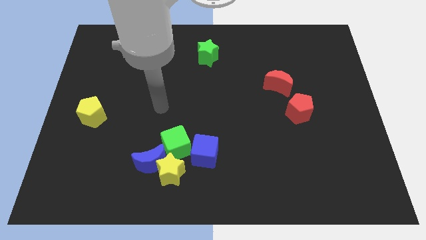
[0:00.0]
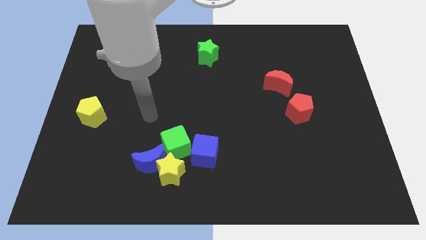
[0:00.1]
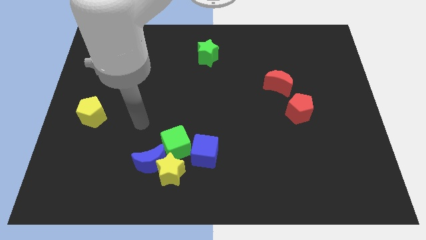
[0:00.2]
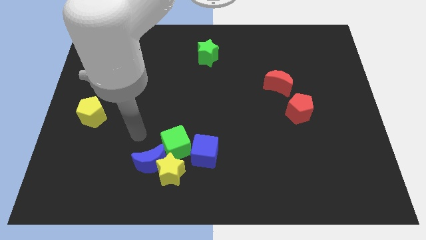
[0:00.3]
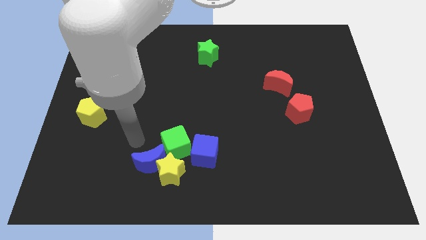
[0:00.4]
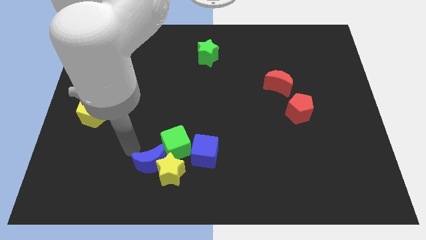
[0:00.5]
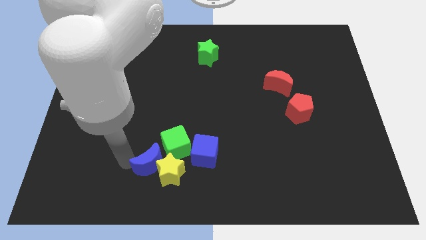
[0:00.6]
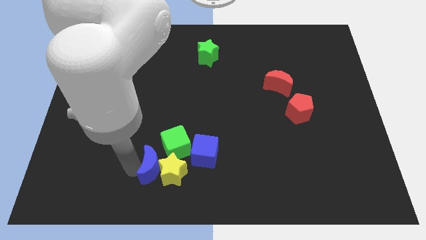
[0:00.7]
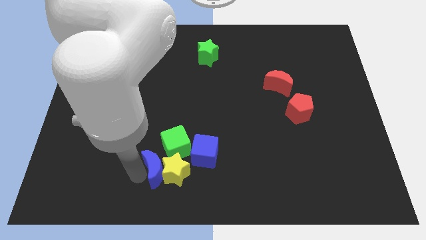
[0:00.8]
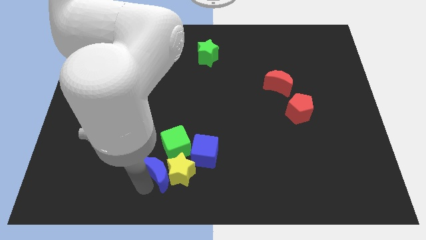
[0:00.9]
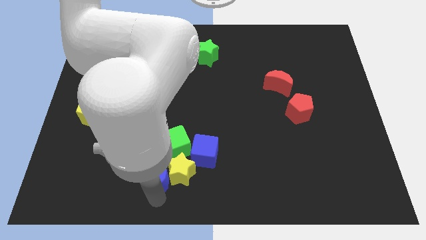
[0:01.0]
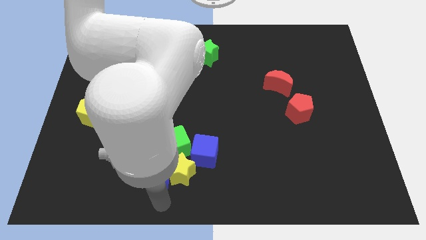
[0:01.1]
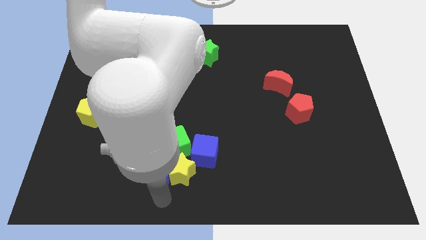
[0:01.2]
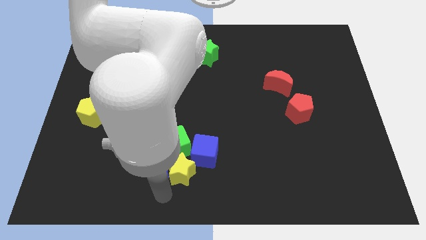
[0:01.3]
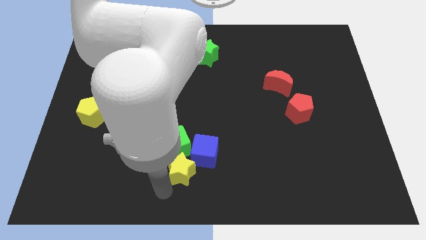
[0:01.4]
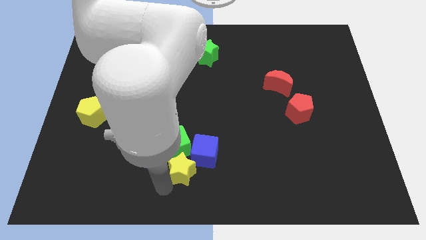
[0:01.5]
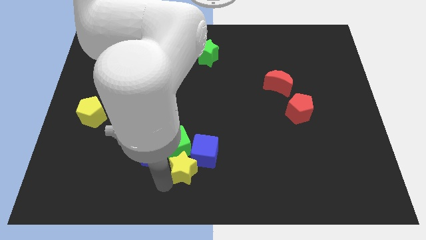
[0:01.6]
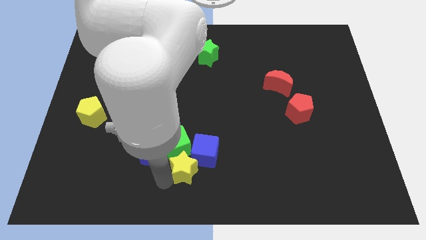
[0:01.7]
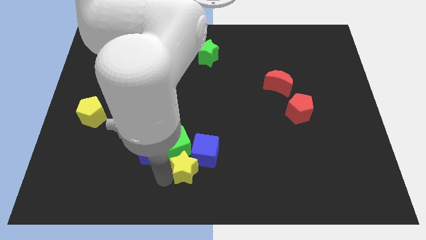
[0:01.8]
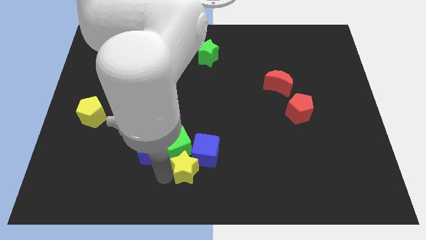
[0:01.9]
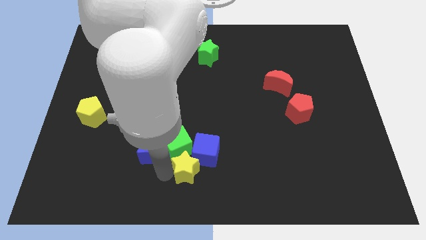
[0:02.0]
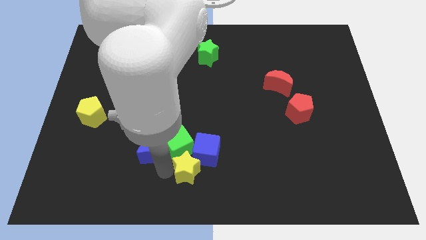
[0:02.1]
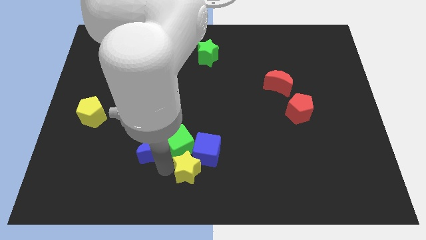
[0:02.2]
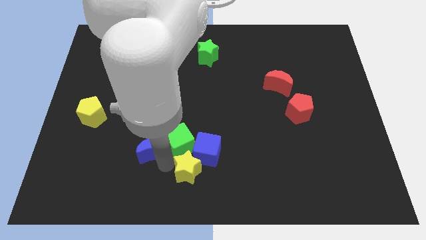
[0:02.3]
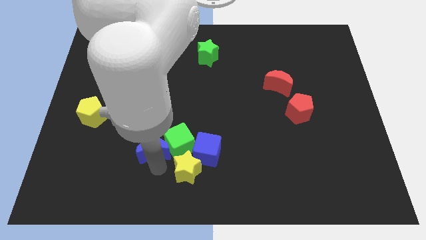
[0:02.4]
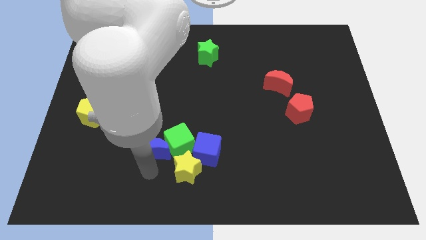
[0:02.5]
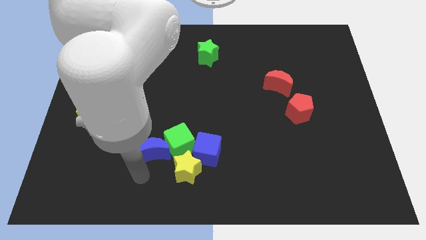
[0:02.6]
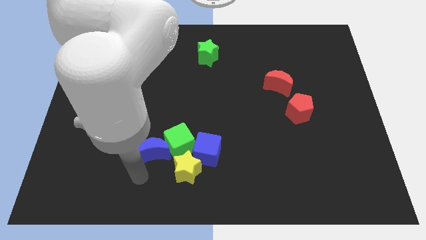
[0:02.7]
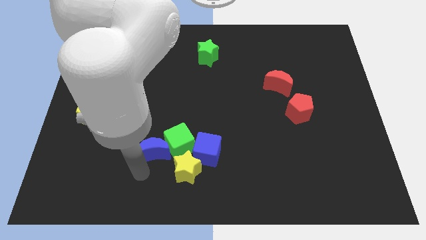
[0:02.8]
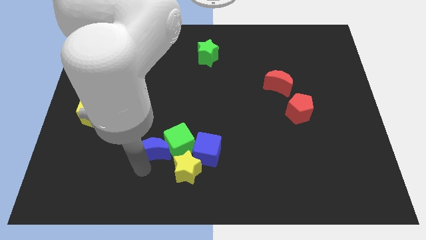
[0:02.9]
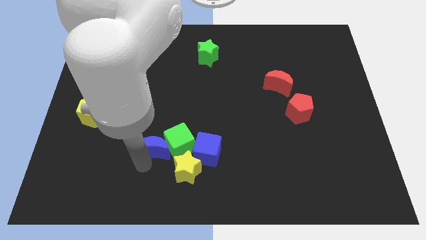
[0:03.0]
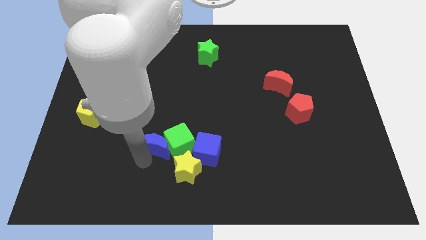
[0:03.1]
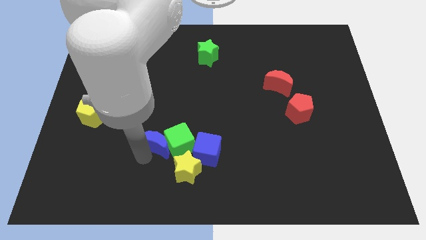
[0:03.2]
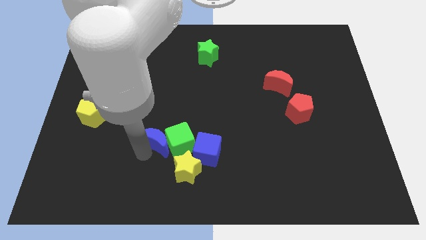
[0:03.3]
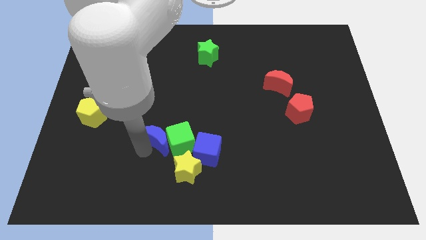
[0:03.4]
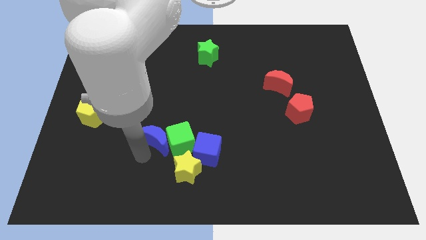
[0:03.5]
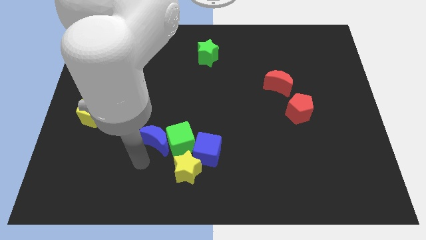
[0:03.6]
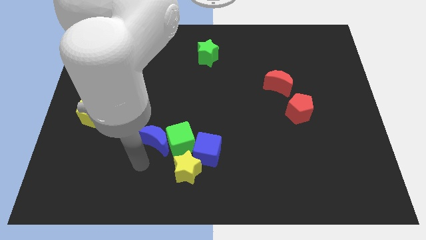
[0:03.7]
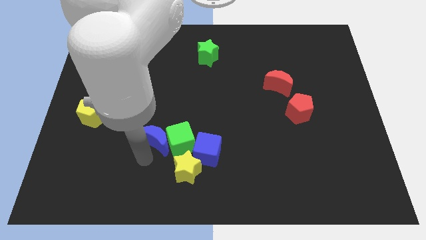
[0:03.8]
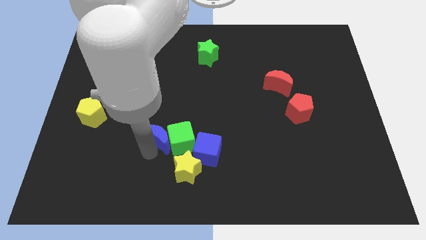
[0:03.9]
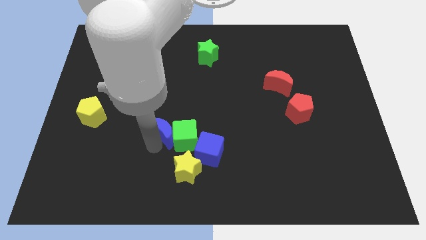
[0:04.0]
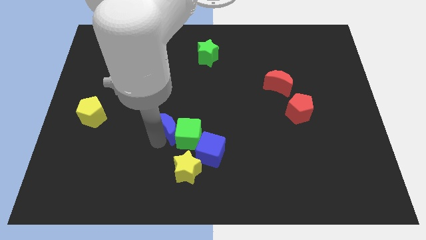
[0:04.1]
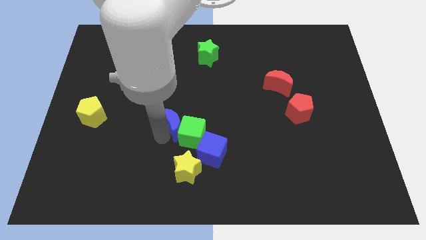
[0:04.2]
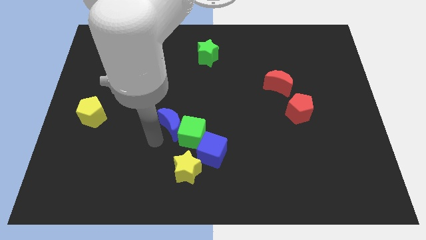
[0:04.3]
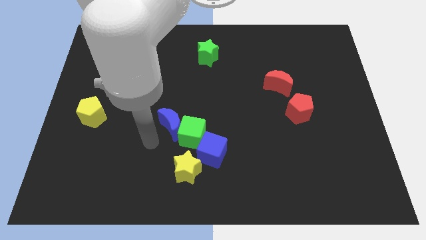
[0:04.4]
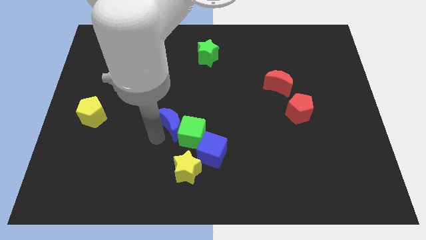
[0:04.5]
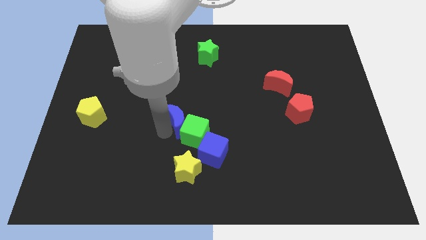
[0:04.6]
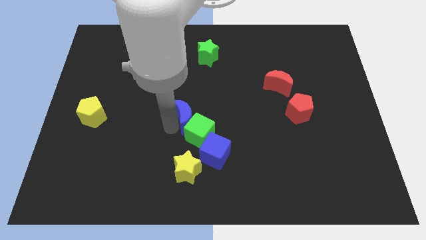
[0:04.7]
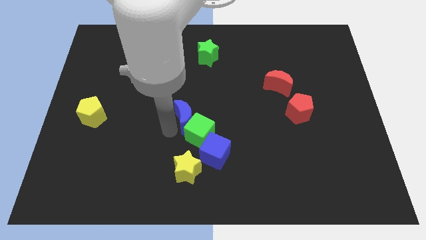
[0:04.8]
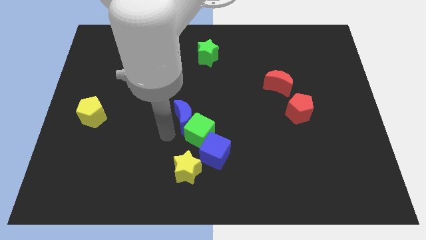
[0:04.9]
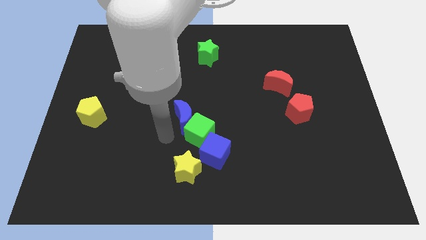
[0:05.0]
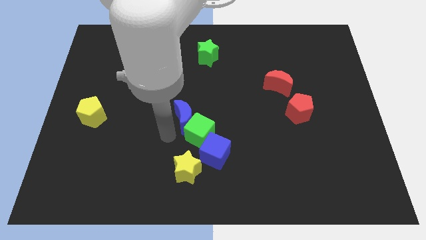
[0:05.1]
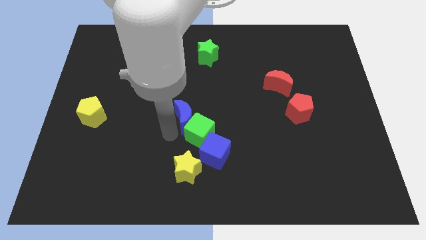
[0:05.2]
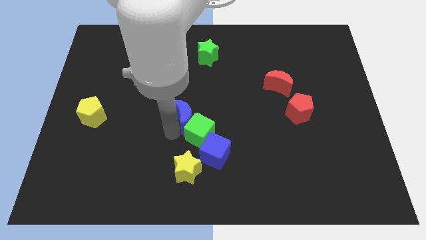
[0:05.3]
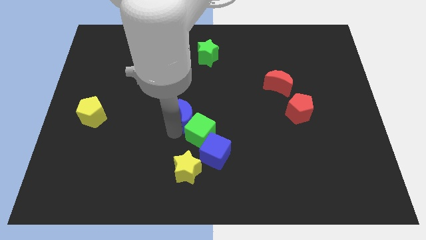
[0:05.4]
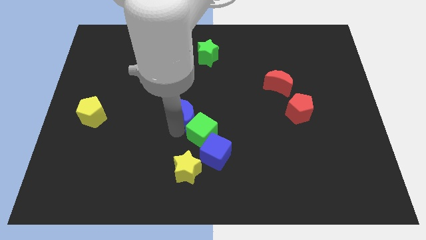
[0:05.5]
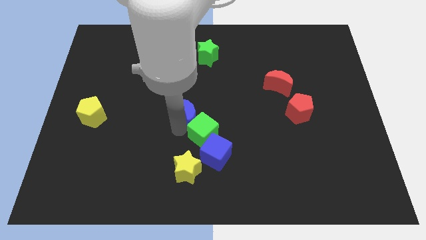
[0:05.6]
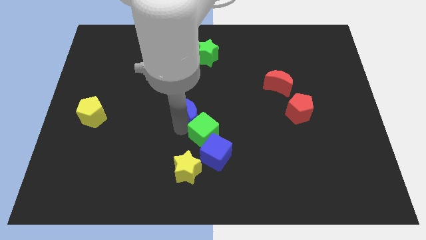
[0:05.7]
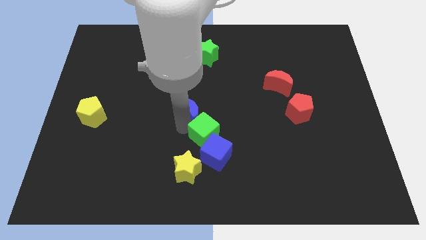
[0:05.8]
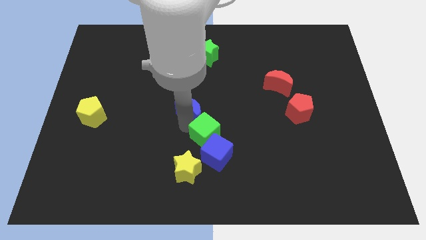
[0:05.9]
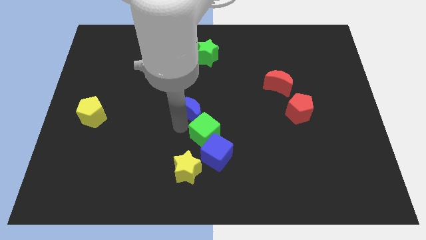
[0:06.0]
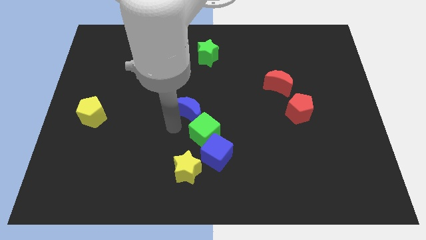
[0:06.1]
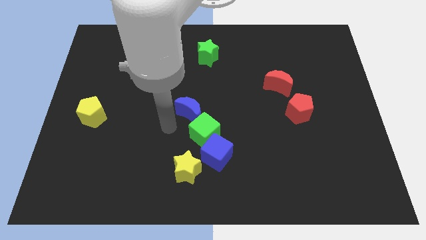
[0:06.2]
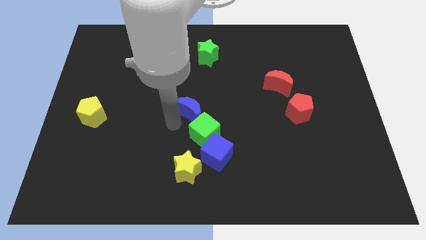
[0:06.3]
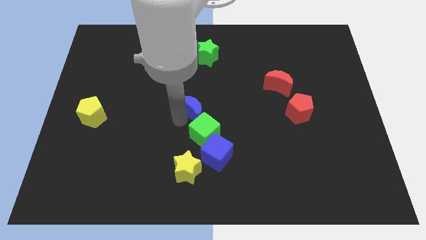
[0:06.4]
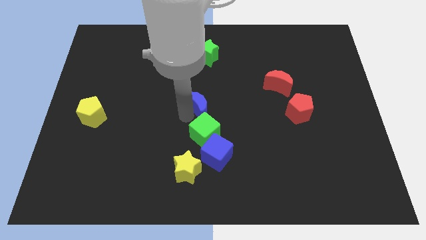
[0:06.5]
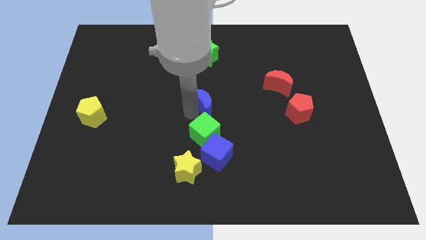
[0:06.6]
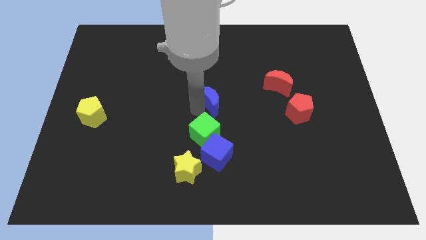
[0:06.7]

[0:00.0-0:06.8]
push the blue moon upwards and right

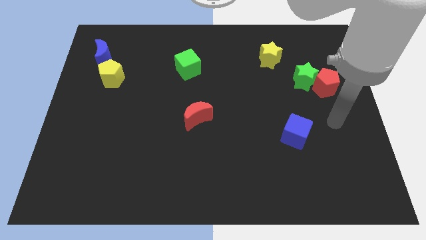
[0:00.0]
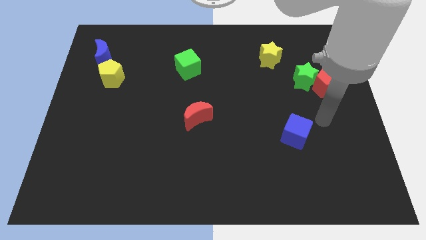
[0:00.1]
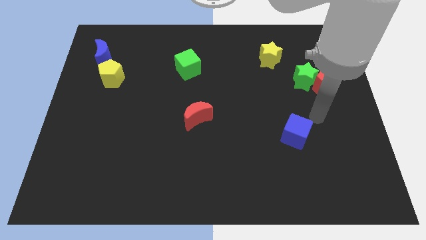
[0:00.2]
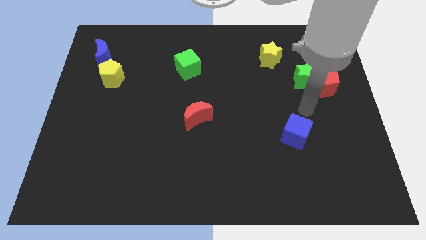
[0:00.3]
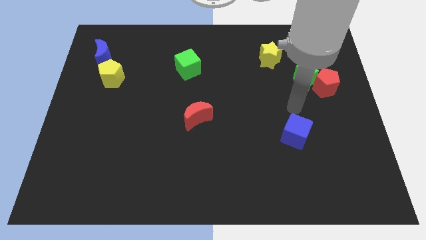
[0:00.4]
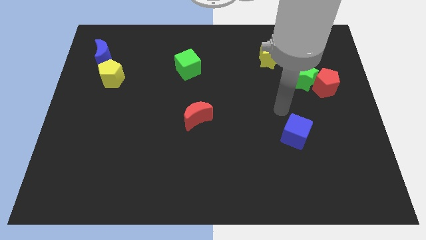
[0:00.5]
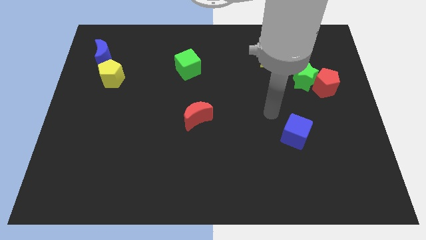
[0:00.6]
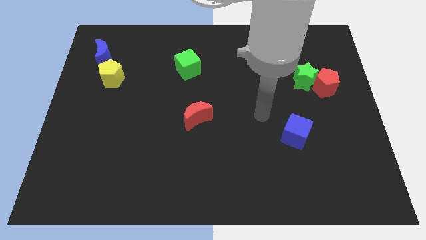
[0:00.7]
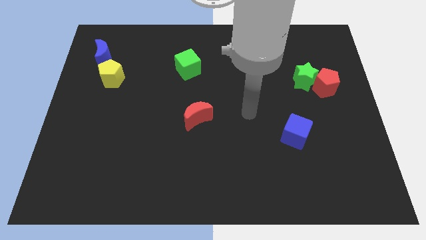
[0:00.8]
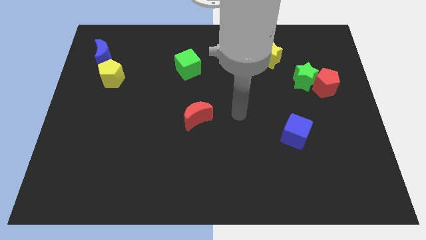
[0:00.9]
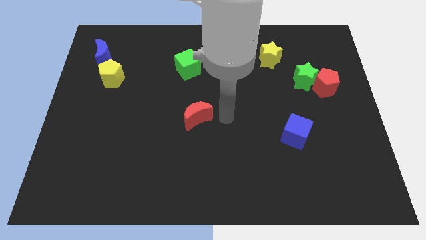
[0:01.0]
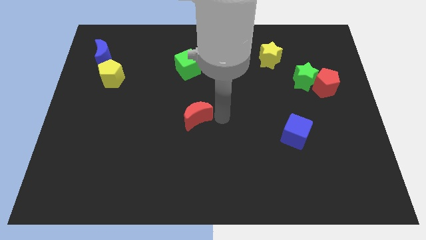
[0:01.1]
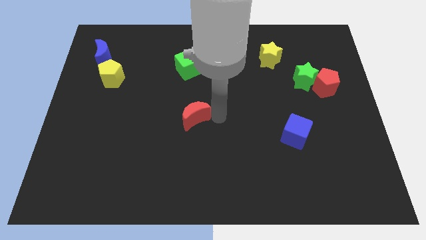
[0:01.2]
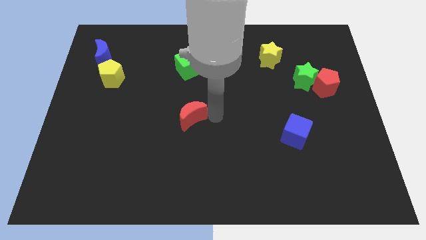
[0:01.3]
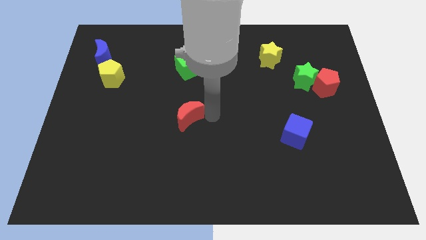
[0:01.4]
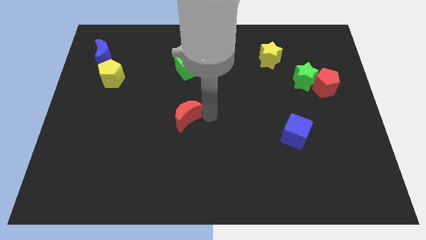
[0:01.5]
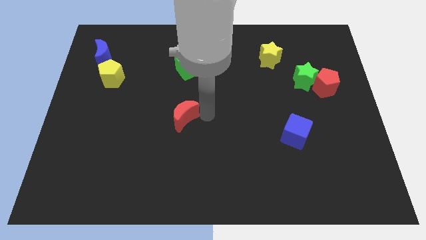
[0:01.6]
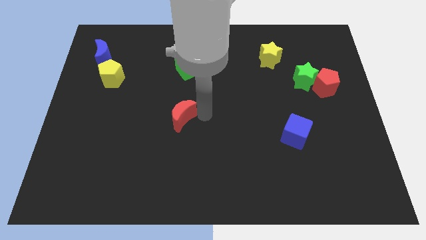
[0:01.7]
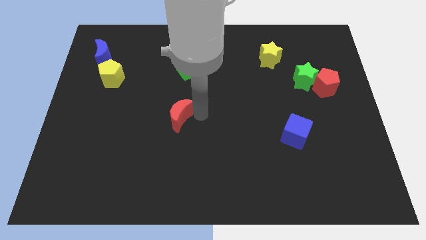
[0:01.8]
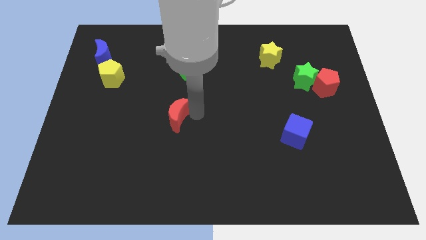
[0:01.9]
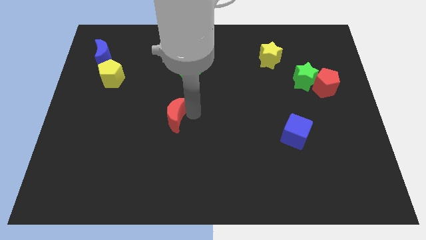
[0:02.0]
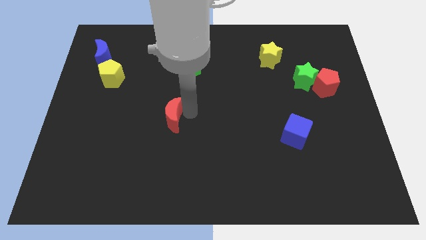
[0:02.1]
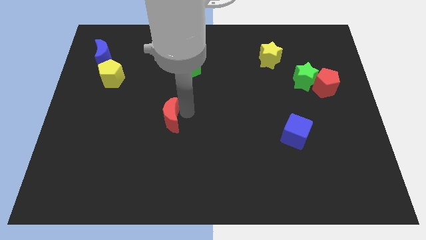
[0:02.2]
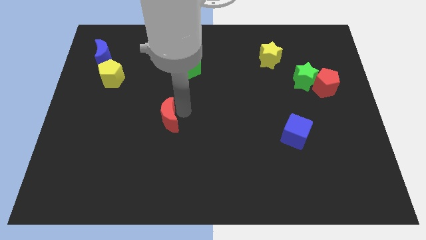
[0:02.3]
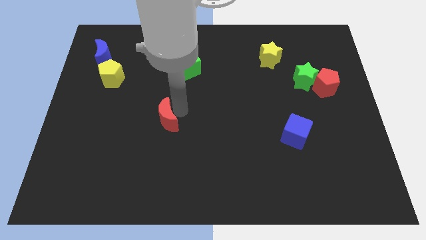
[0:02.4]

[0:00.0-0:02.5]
move the red moon left a bit
